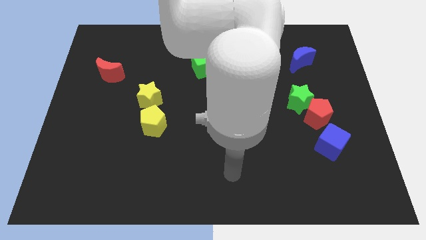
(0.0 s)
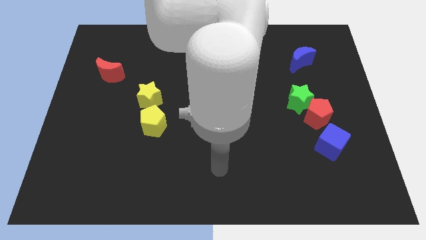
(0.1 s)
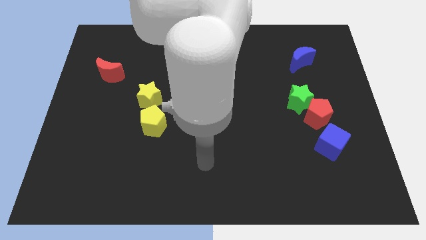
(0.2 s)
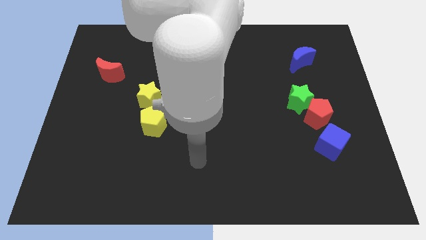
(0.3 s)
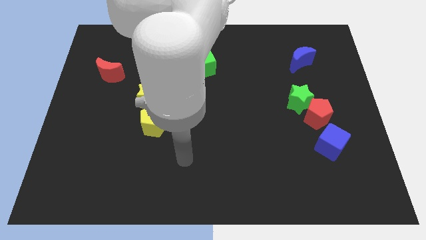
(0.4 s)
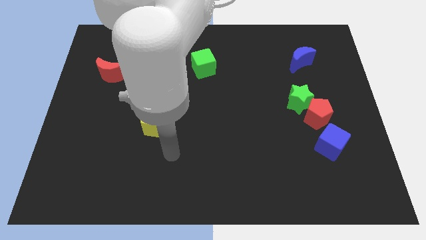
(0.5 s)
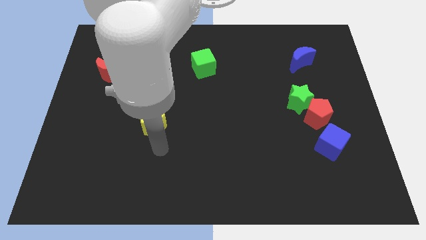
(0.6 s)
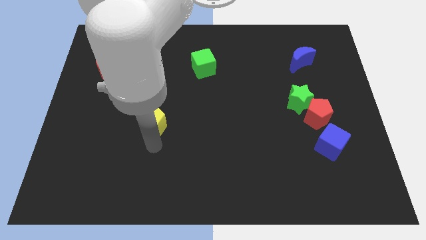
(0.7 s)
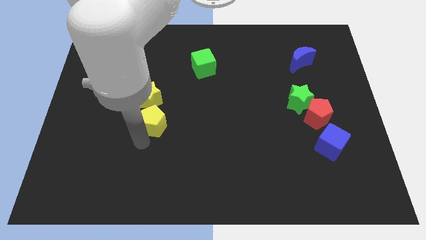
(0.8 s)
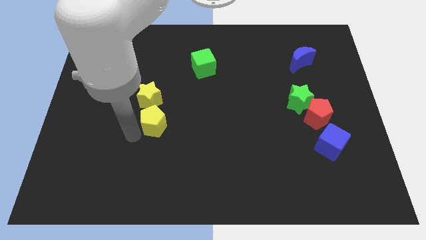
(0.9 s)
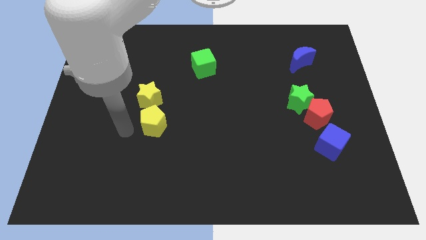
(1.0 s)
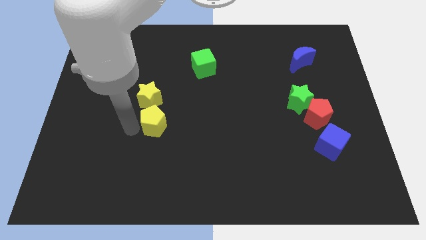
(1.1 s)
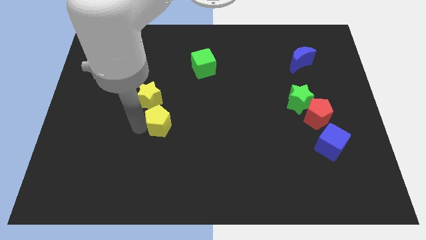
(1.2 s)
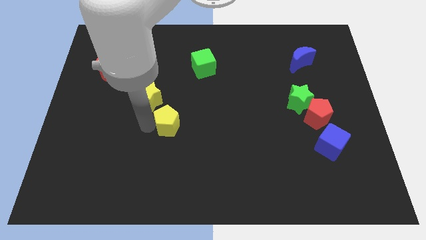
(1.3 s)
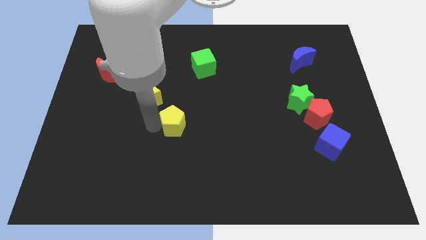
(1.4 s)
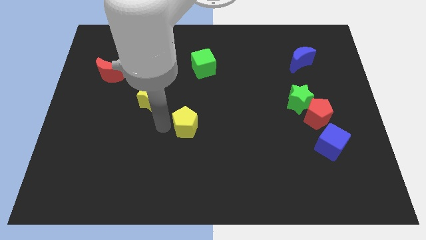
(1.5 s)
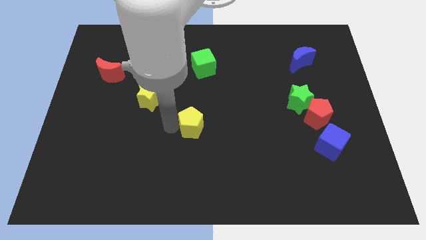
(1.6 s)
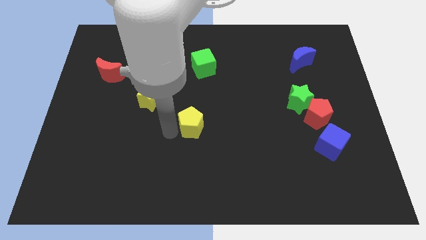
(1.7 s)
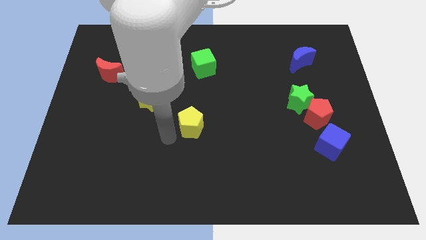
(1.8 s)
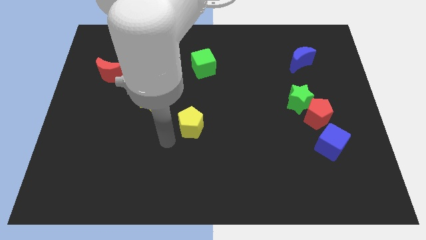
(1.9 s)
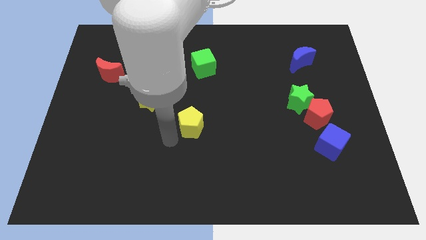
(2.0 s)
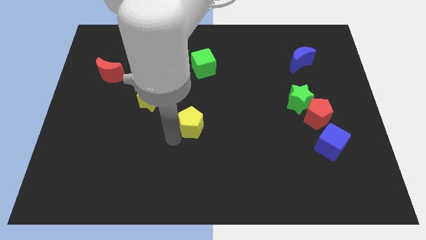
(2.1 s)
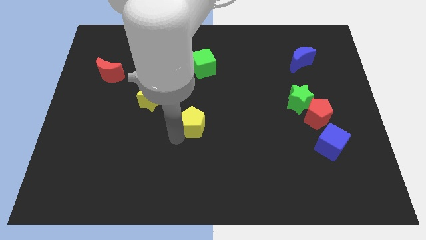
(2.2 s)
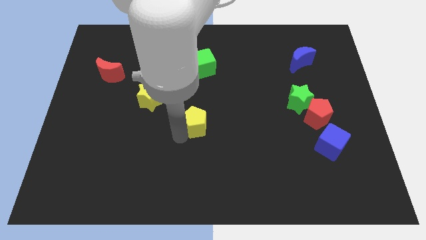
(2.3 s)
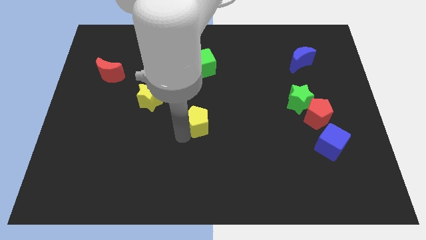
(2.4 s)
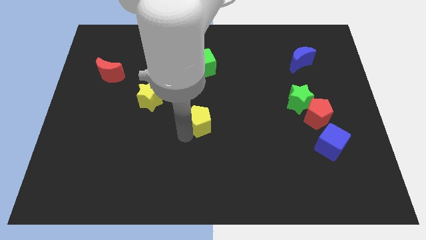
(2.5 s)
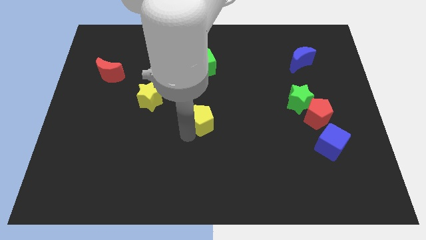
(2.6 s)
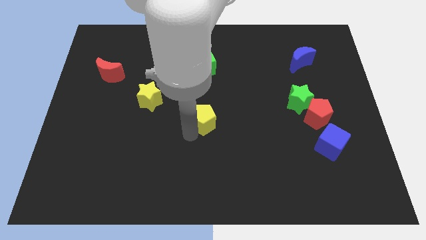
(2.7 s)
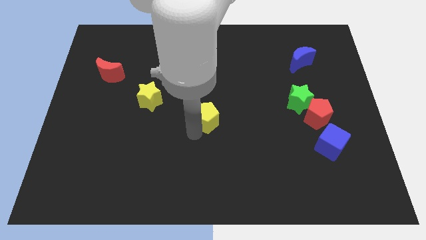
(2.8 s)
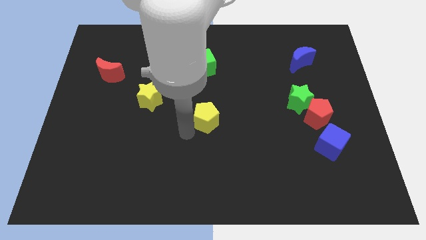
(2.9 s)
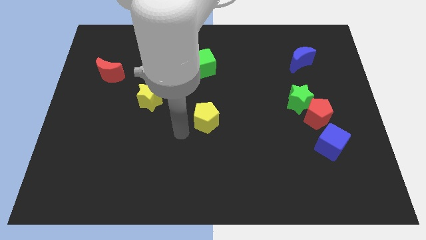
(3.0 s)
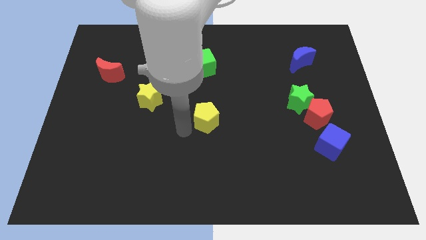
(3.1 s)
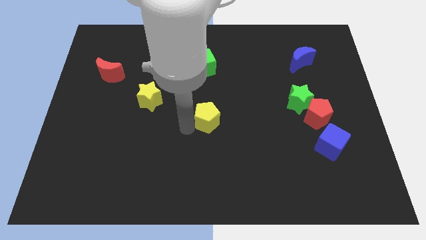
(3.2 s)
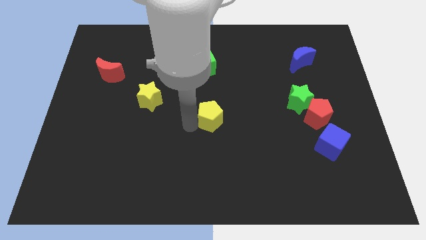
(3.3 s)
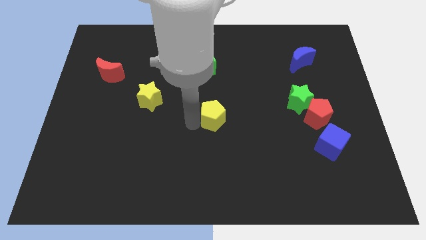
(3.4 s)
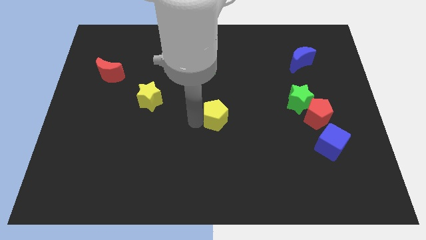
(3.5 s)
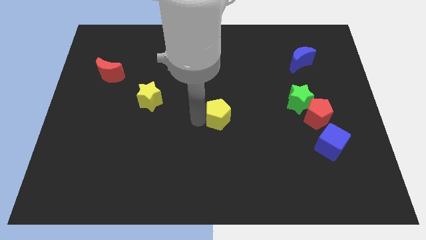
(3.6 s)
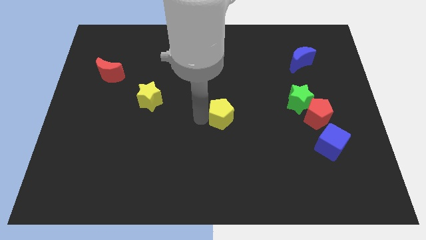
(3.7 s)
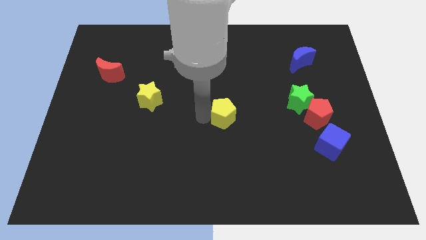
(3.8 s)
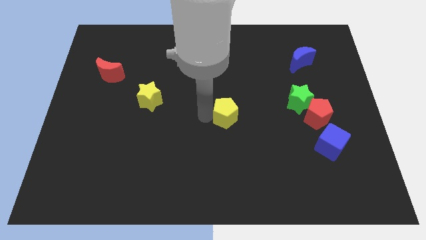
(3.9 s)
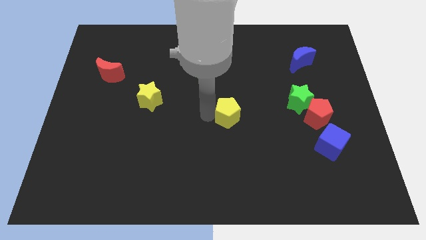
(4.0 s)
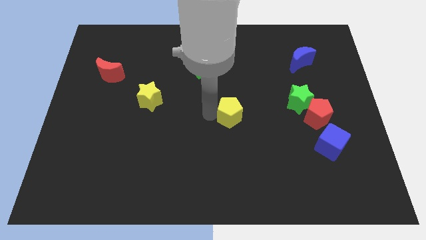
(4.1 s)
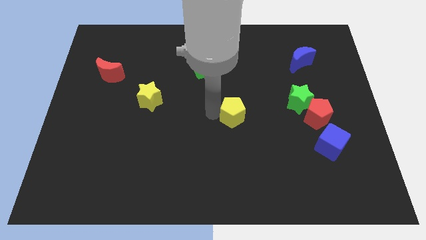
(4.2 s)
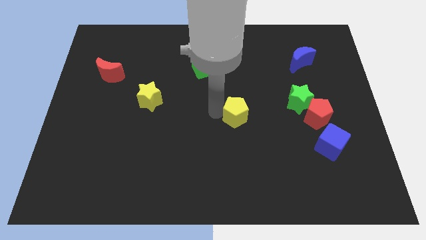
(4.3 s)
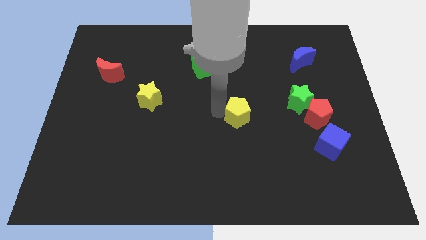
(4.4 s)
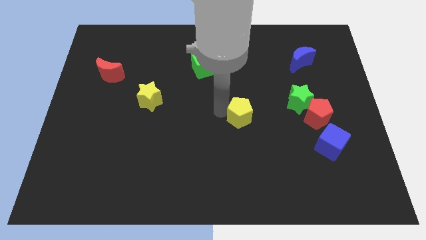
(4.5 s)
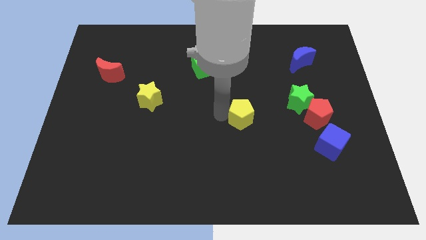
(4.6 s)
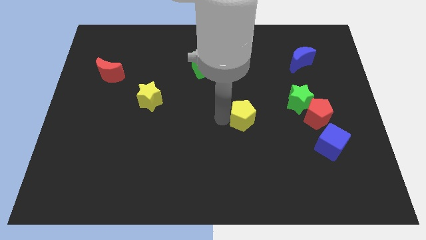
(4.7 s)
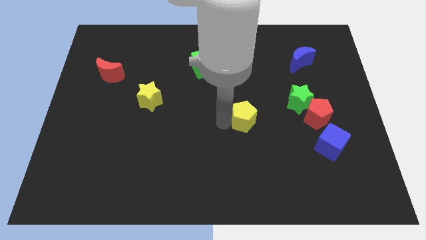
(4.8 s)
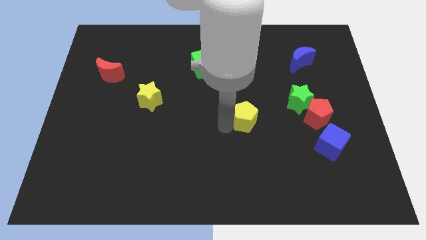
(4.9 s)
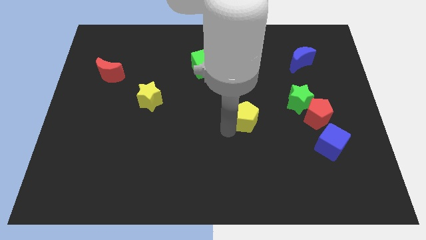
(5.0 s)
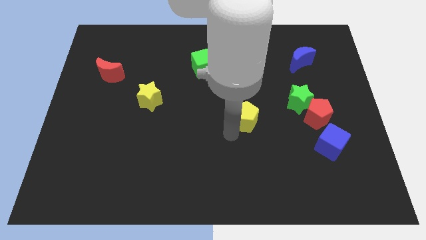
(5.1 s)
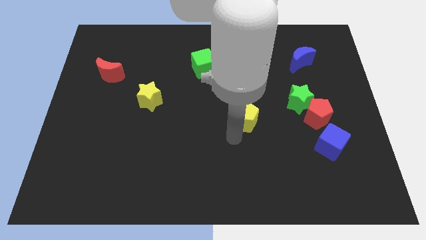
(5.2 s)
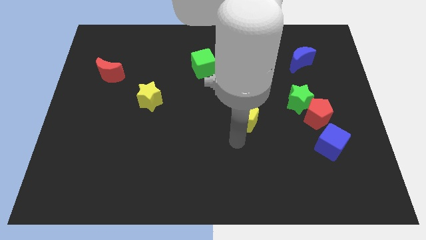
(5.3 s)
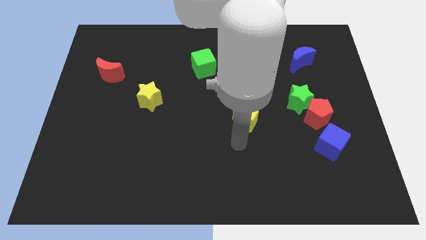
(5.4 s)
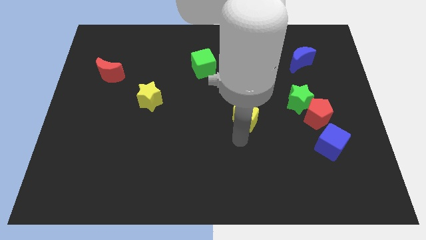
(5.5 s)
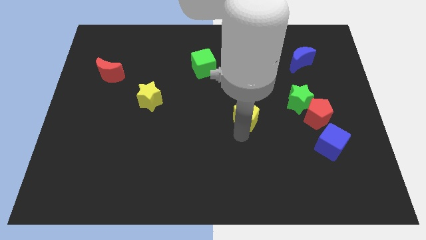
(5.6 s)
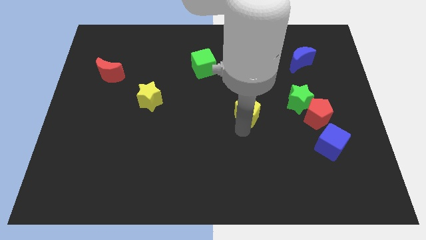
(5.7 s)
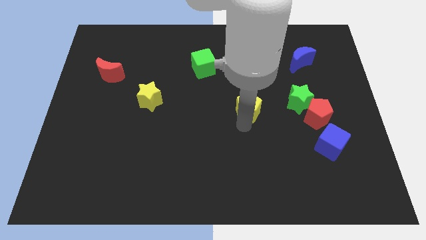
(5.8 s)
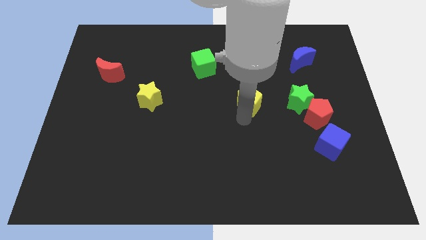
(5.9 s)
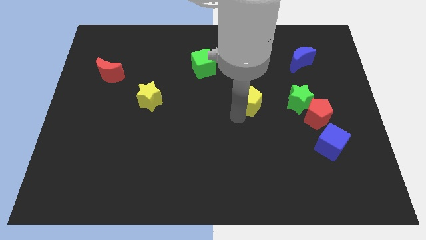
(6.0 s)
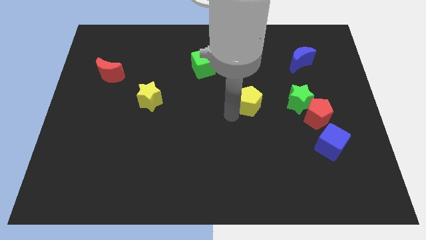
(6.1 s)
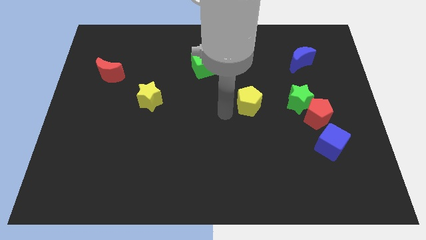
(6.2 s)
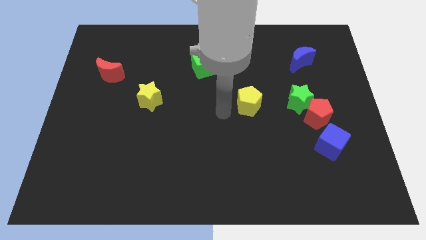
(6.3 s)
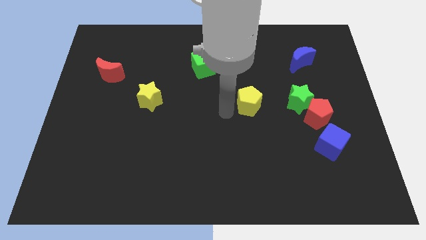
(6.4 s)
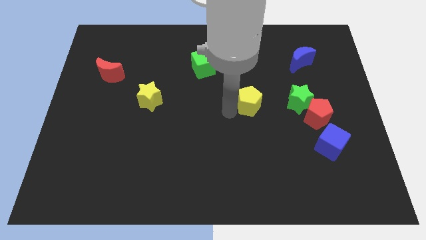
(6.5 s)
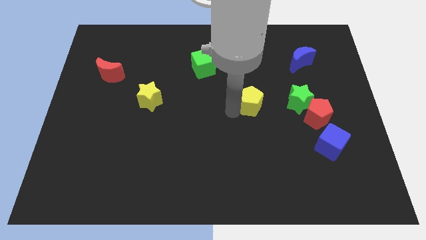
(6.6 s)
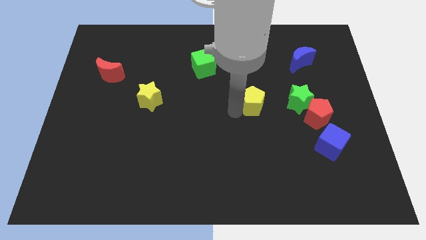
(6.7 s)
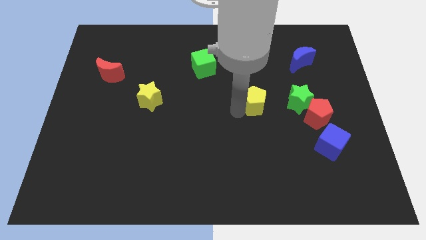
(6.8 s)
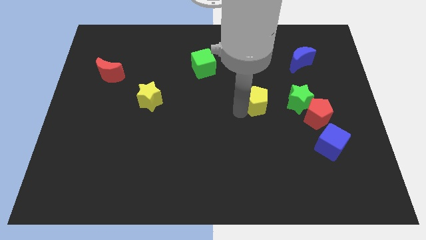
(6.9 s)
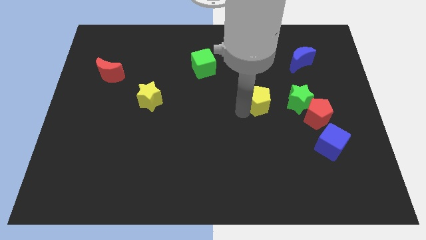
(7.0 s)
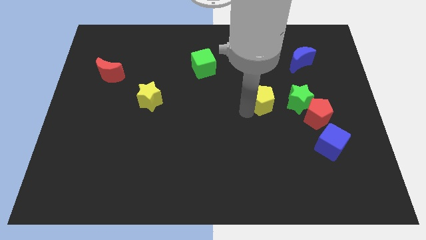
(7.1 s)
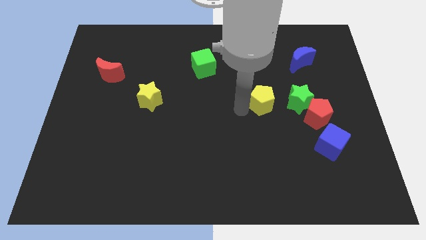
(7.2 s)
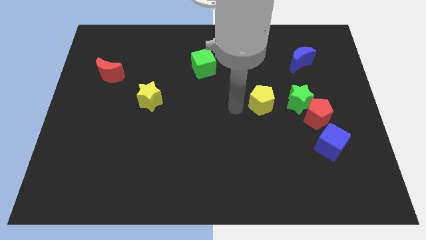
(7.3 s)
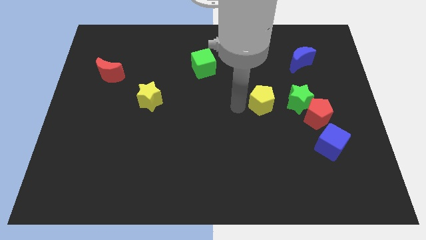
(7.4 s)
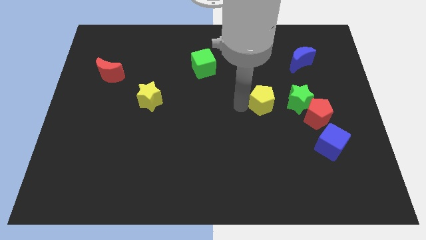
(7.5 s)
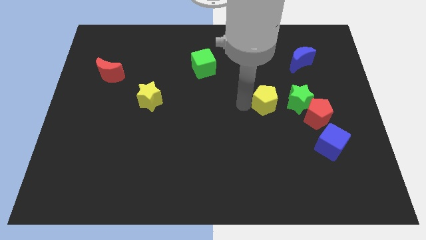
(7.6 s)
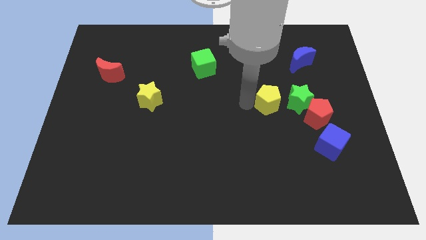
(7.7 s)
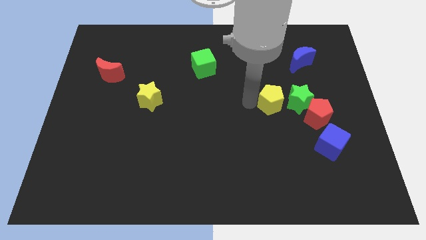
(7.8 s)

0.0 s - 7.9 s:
push the yellow pentagon diagonally up and to the left of the red pentagon

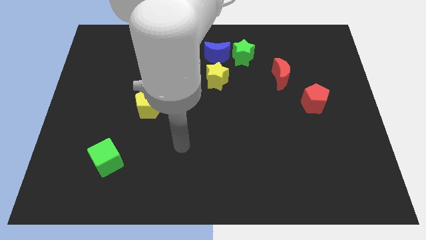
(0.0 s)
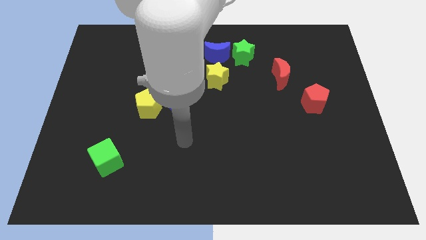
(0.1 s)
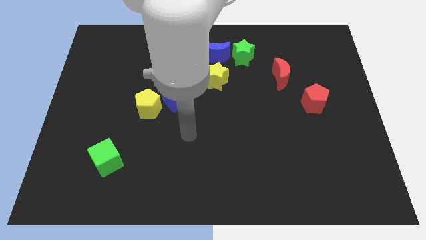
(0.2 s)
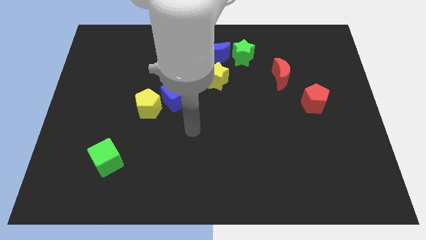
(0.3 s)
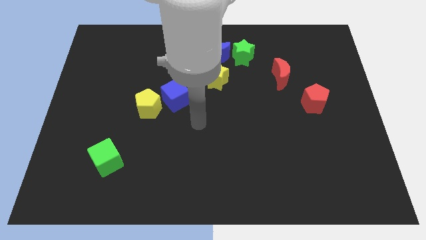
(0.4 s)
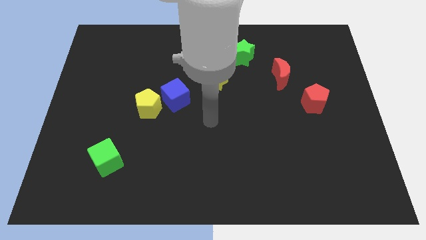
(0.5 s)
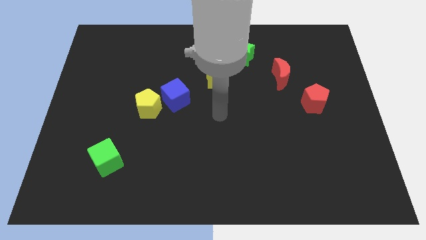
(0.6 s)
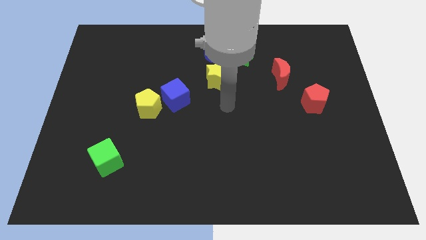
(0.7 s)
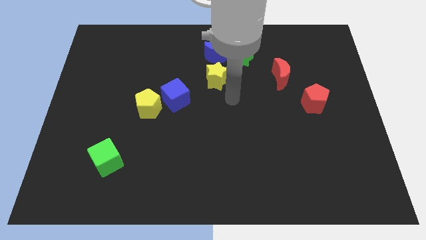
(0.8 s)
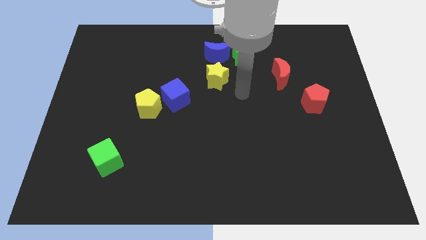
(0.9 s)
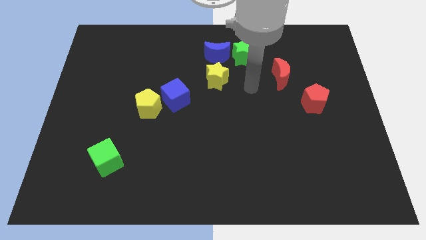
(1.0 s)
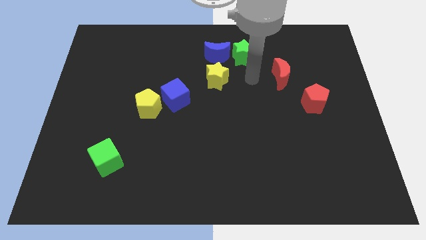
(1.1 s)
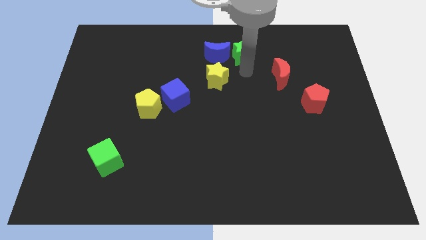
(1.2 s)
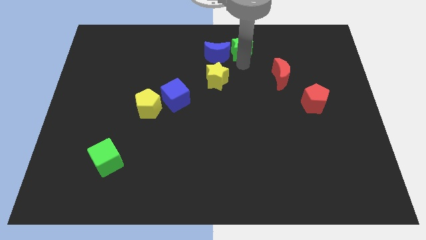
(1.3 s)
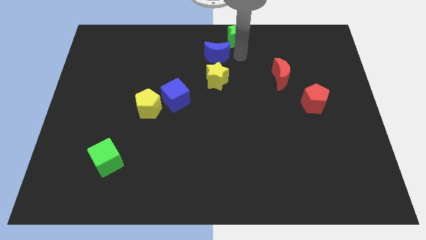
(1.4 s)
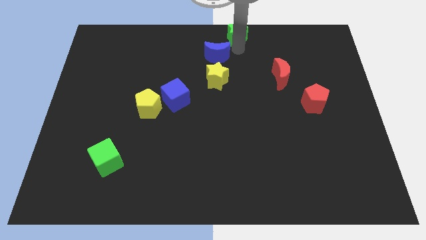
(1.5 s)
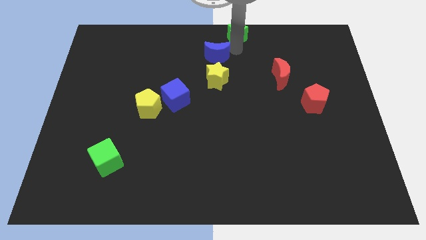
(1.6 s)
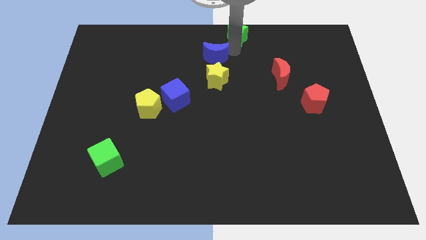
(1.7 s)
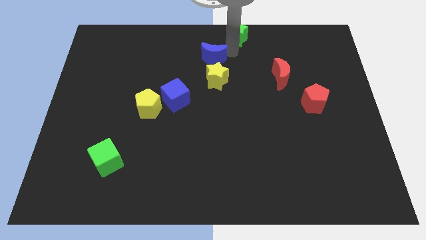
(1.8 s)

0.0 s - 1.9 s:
slide the blue moon diagonally up and to the left of the yellow star
